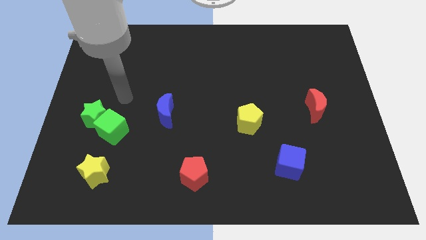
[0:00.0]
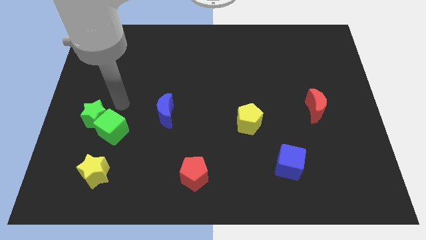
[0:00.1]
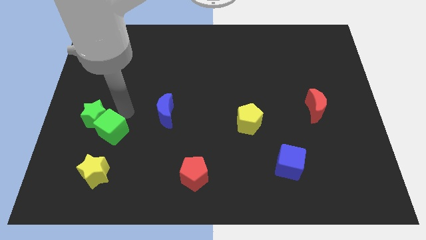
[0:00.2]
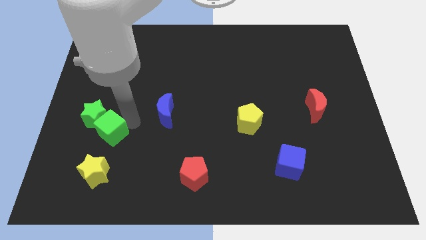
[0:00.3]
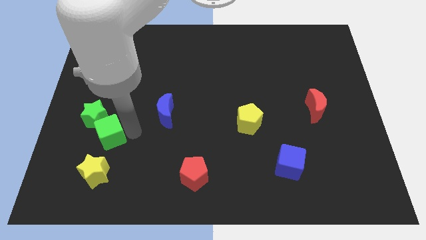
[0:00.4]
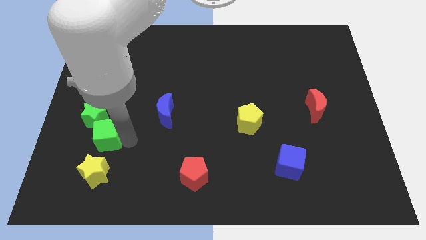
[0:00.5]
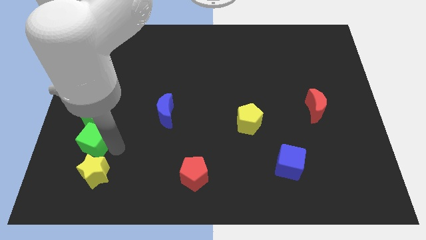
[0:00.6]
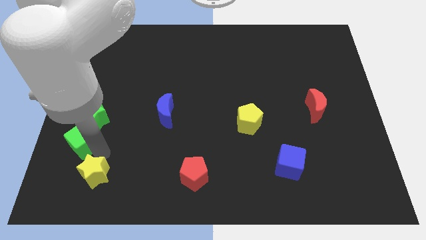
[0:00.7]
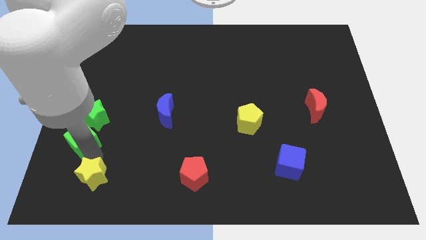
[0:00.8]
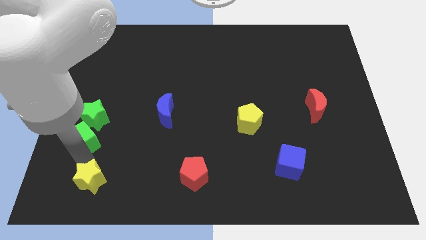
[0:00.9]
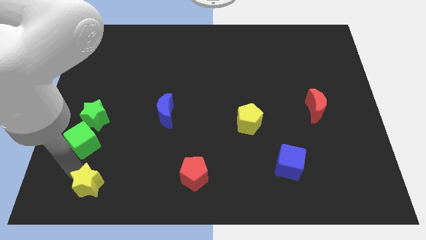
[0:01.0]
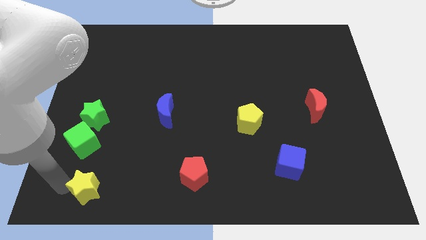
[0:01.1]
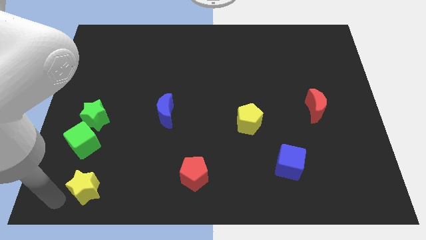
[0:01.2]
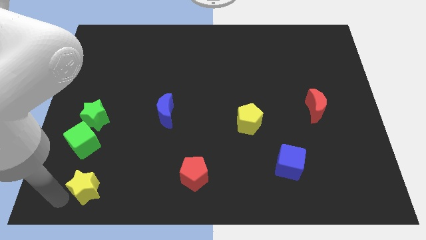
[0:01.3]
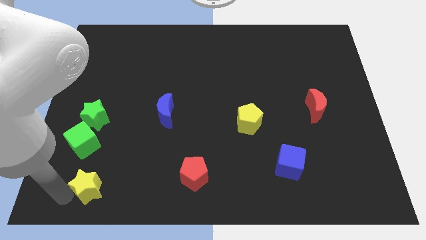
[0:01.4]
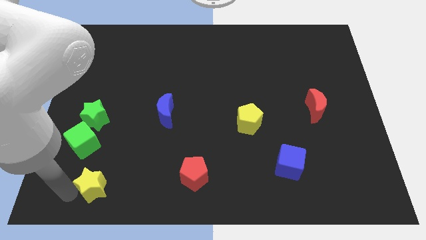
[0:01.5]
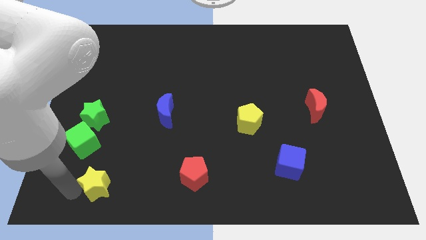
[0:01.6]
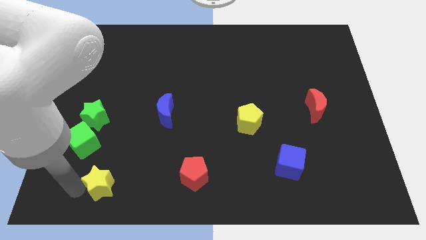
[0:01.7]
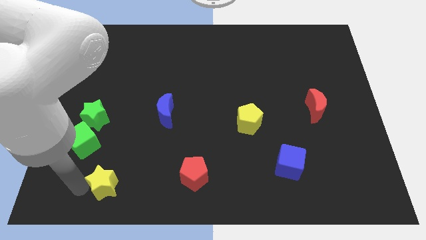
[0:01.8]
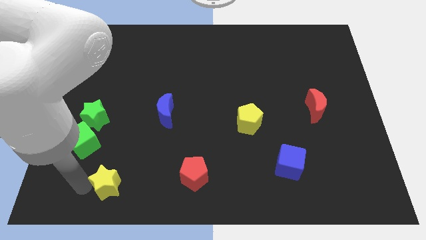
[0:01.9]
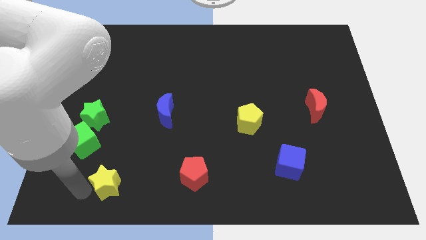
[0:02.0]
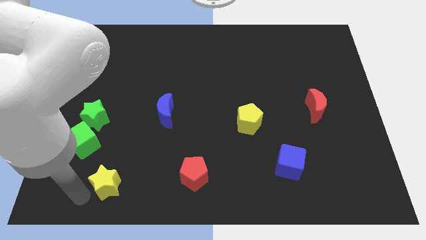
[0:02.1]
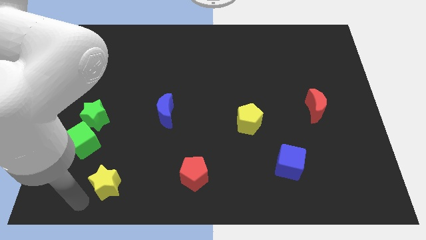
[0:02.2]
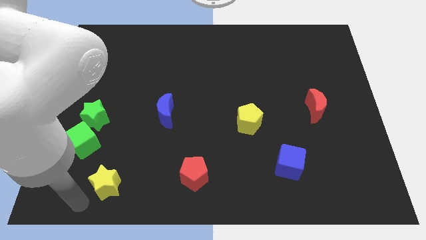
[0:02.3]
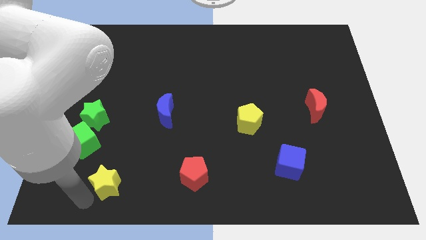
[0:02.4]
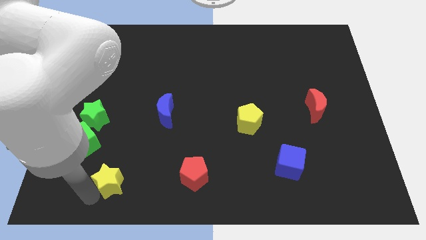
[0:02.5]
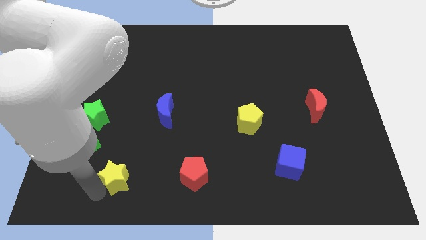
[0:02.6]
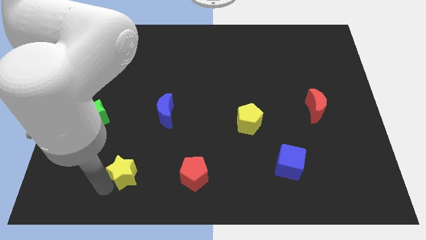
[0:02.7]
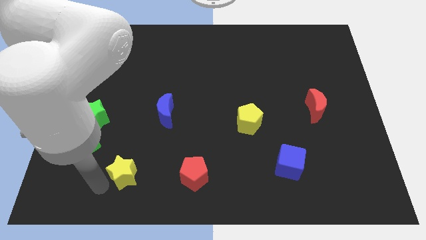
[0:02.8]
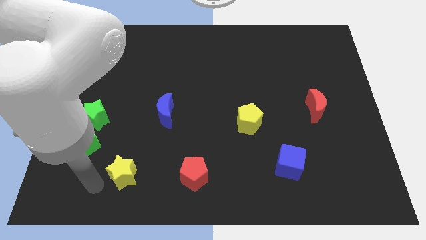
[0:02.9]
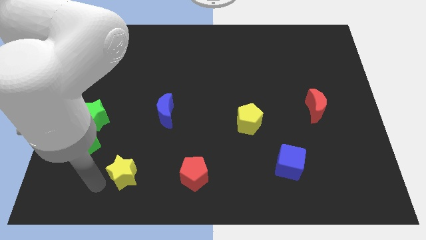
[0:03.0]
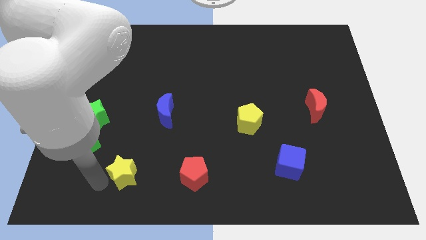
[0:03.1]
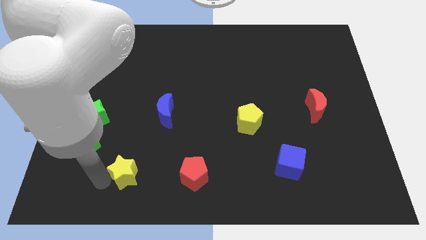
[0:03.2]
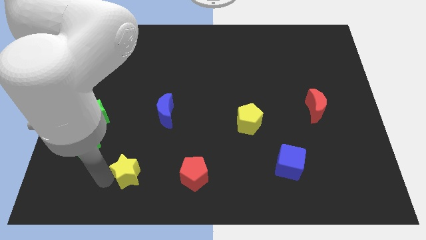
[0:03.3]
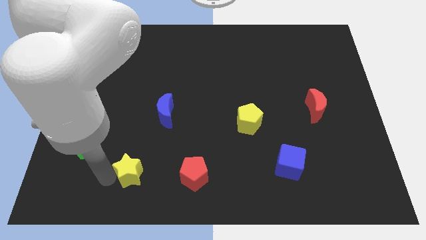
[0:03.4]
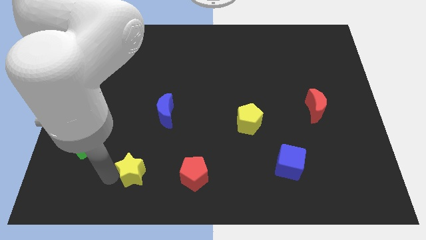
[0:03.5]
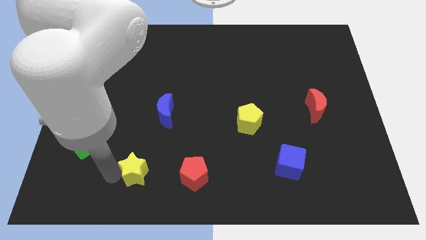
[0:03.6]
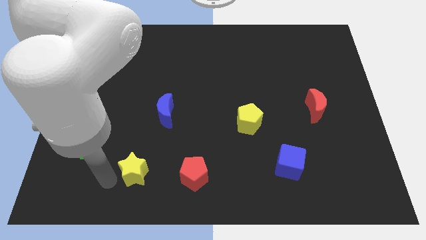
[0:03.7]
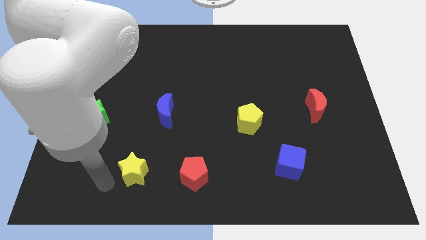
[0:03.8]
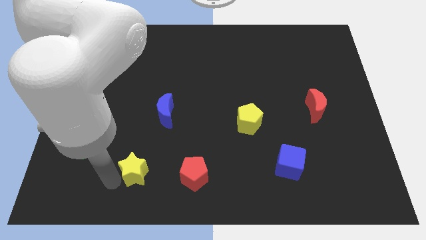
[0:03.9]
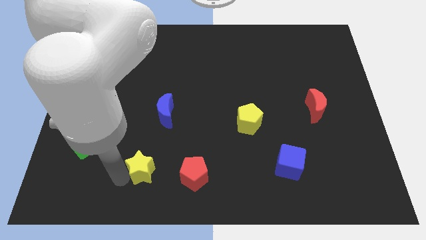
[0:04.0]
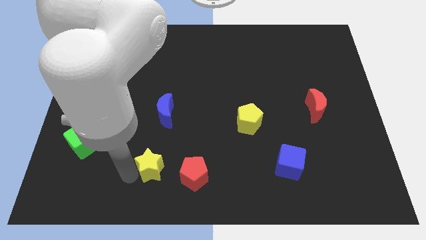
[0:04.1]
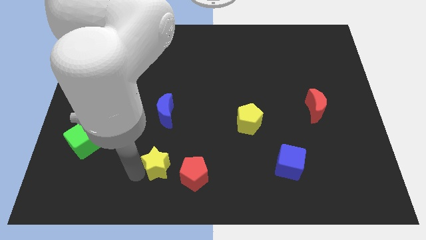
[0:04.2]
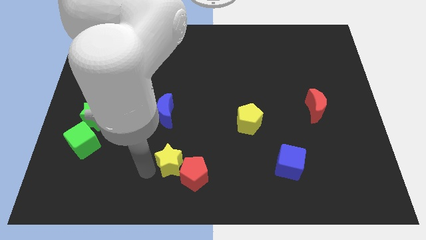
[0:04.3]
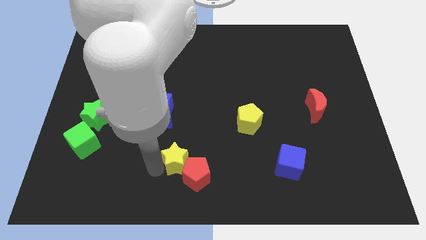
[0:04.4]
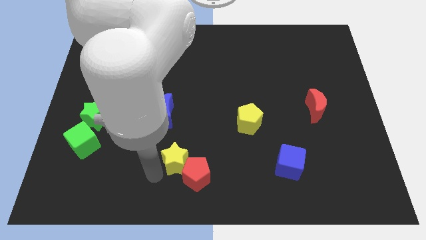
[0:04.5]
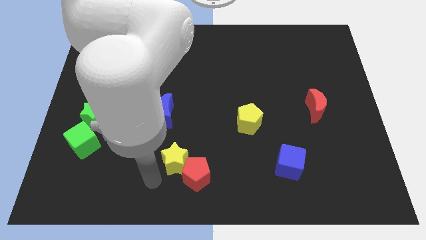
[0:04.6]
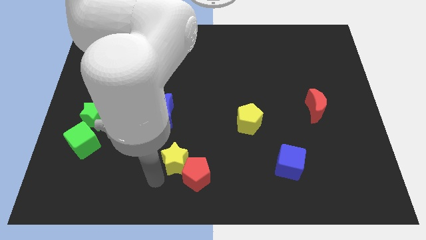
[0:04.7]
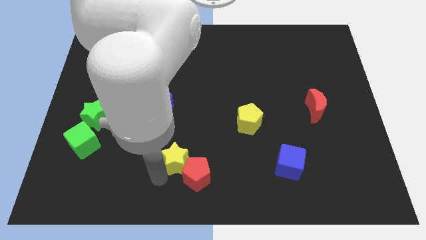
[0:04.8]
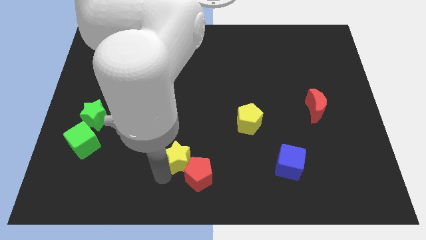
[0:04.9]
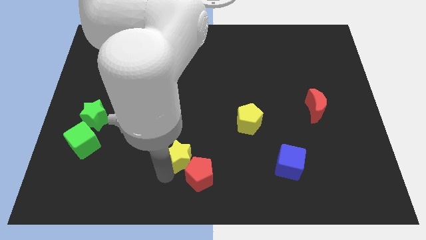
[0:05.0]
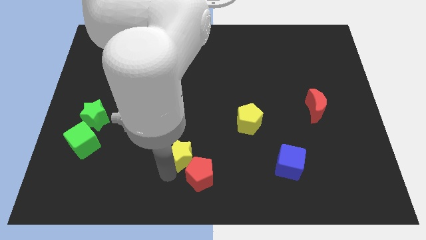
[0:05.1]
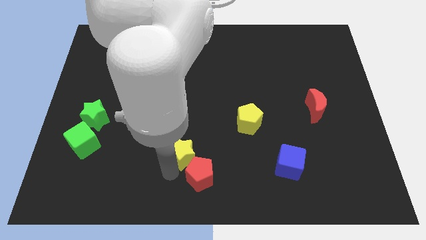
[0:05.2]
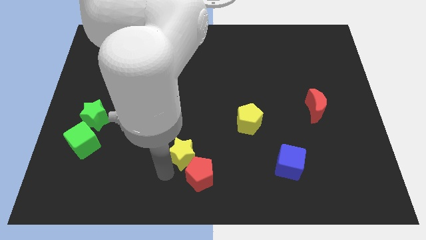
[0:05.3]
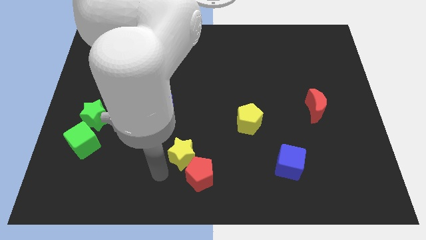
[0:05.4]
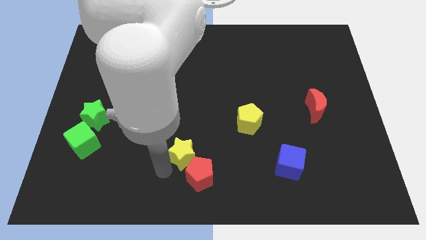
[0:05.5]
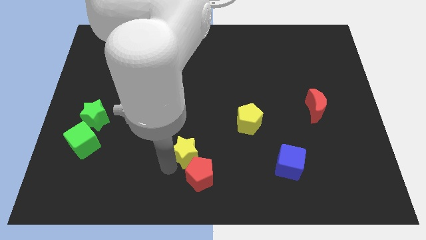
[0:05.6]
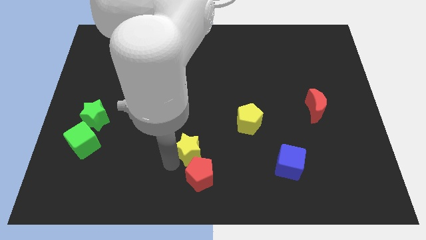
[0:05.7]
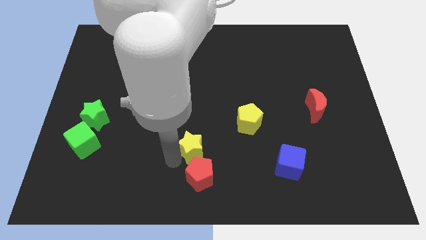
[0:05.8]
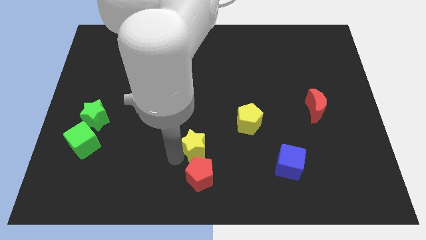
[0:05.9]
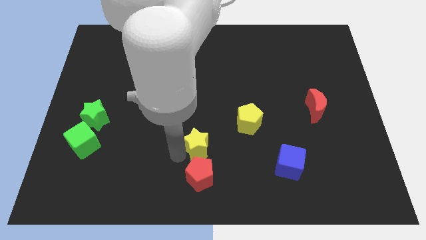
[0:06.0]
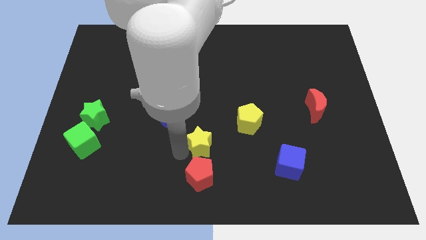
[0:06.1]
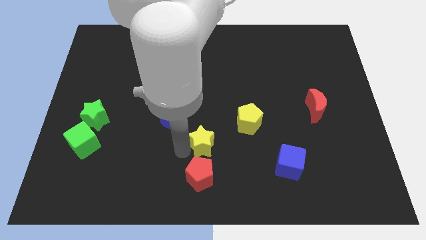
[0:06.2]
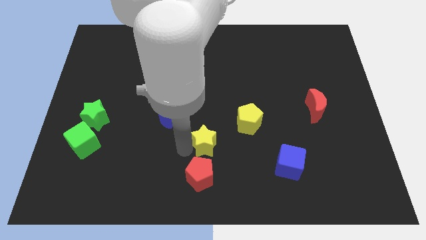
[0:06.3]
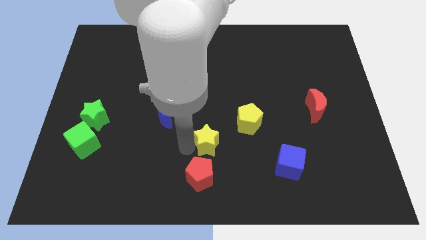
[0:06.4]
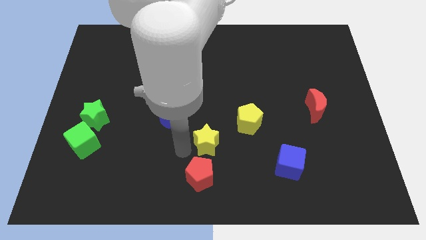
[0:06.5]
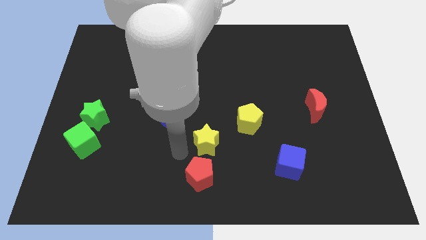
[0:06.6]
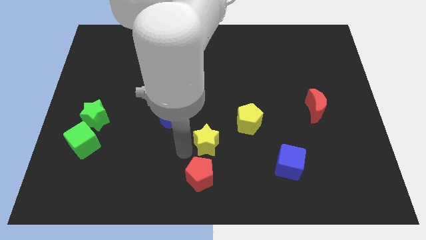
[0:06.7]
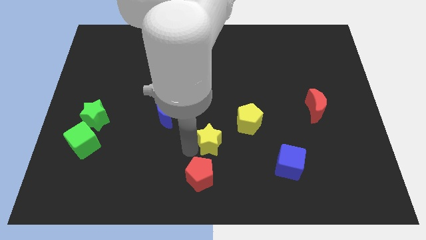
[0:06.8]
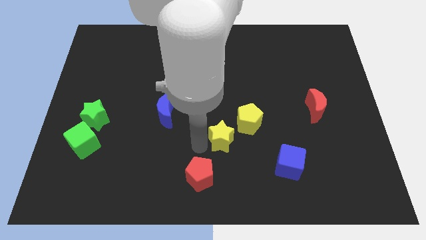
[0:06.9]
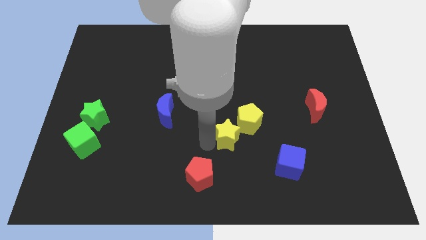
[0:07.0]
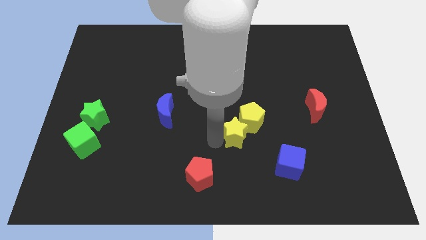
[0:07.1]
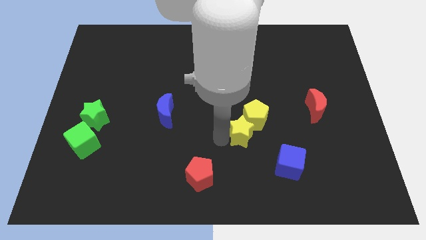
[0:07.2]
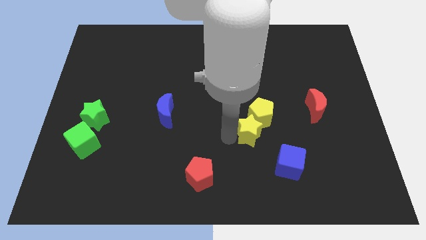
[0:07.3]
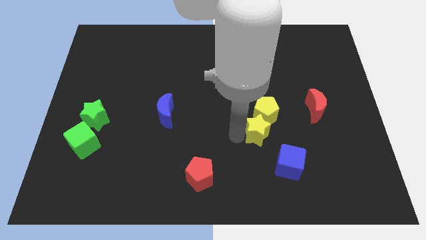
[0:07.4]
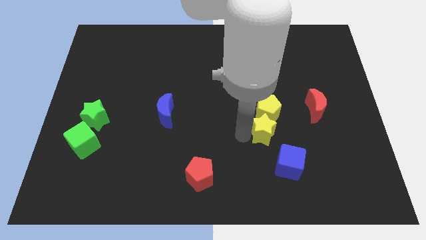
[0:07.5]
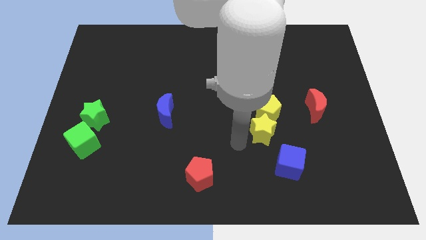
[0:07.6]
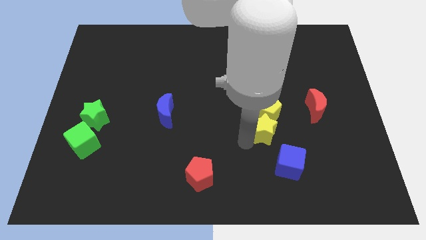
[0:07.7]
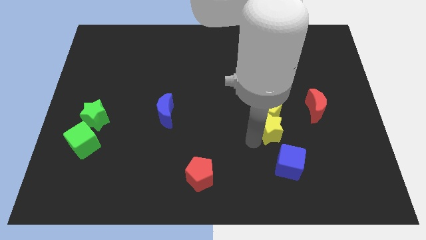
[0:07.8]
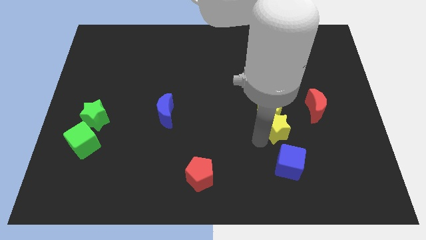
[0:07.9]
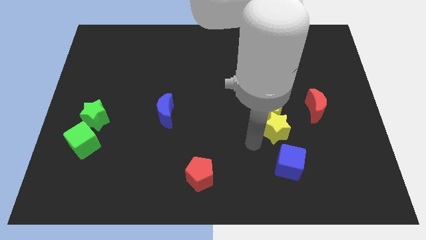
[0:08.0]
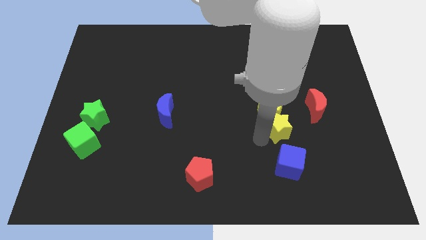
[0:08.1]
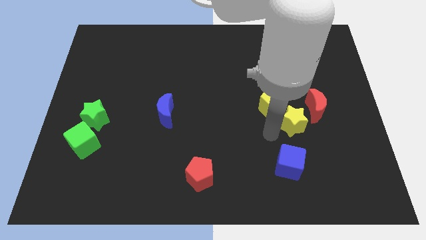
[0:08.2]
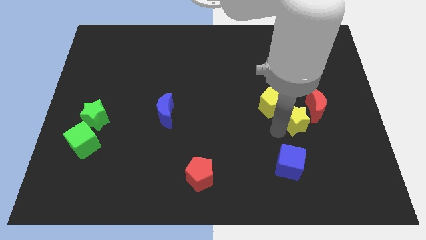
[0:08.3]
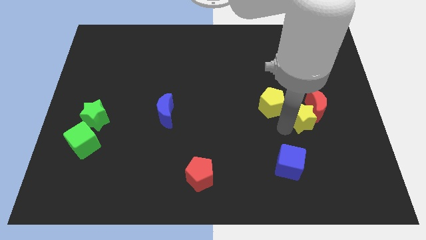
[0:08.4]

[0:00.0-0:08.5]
push the yellow star close to the red moon
